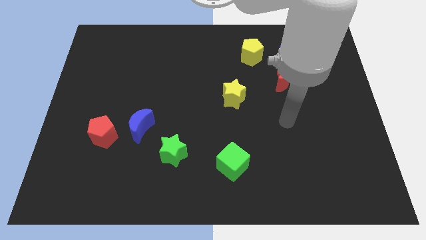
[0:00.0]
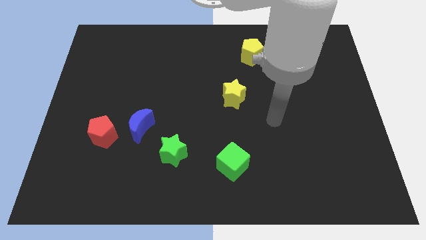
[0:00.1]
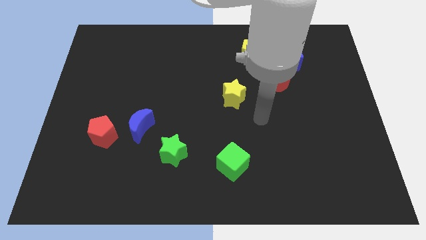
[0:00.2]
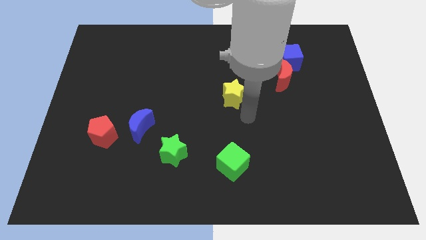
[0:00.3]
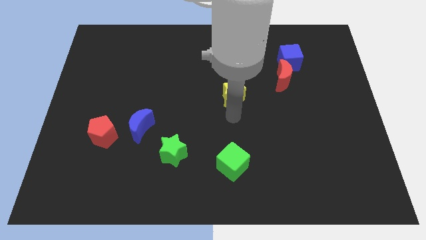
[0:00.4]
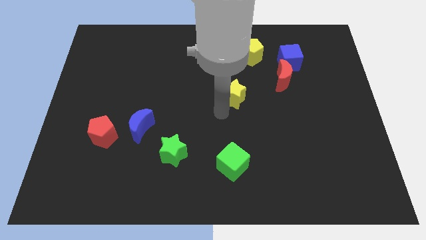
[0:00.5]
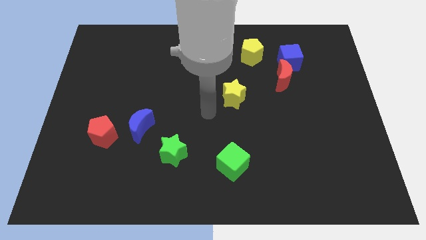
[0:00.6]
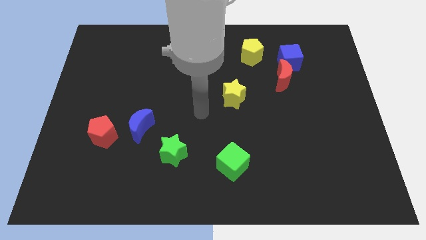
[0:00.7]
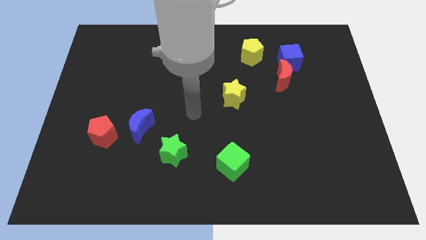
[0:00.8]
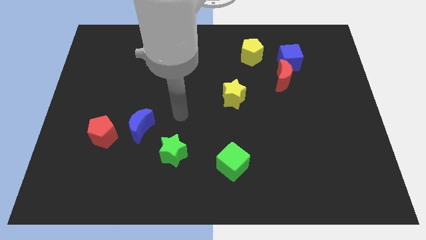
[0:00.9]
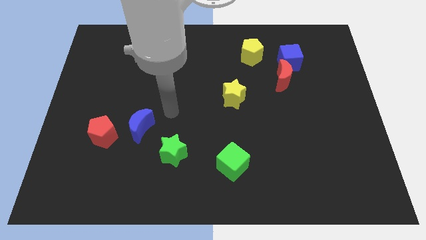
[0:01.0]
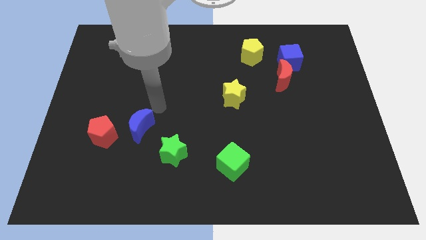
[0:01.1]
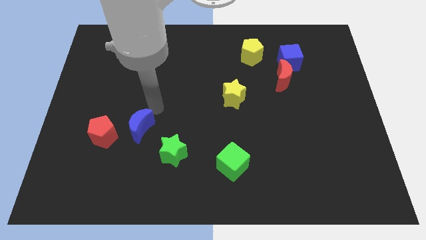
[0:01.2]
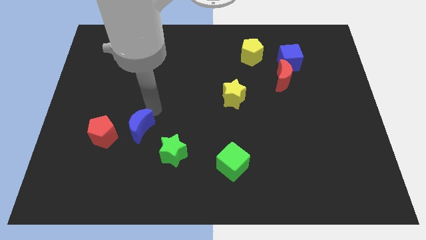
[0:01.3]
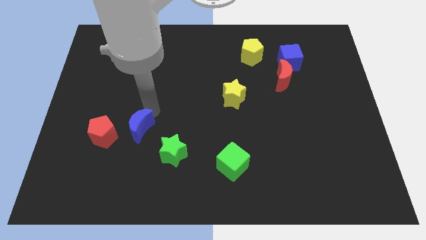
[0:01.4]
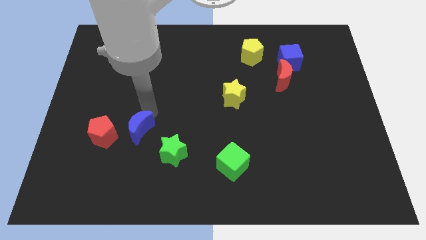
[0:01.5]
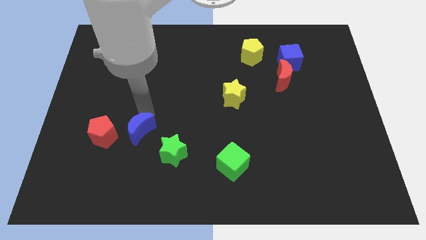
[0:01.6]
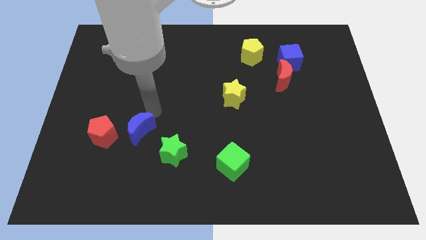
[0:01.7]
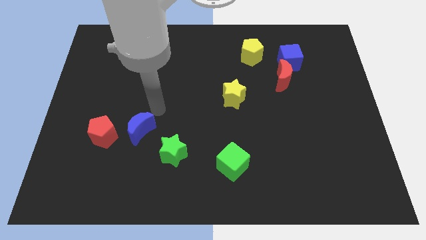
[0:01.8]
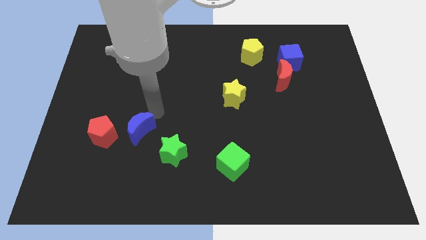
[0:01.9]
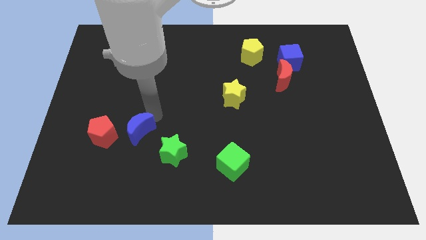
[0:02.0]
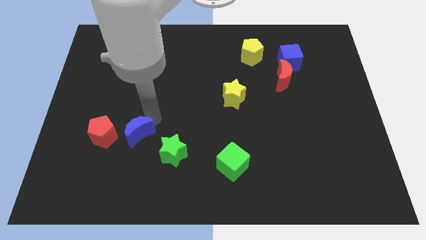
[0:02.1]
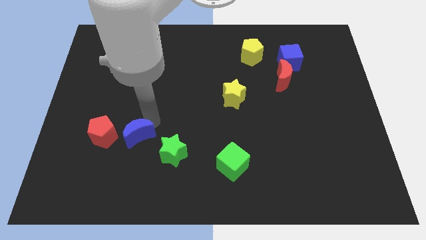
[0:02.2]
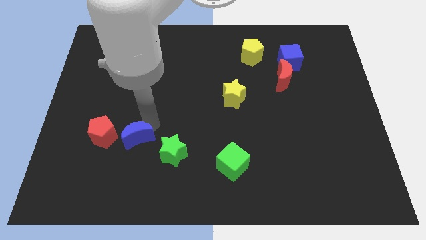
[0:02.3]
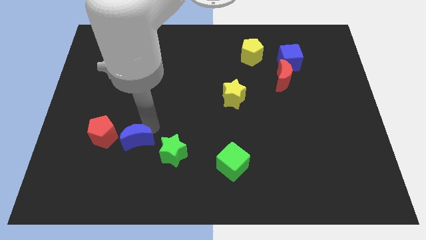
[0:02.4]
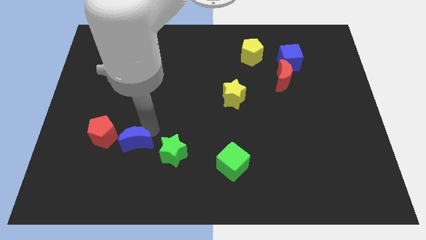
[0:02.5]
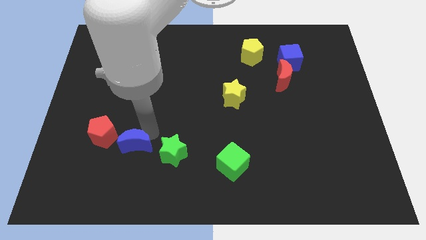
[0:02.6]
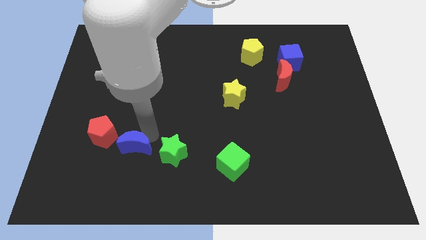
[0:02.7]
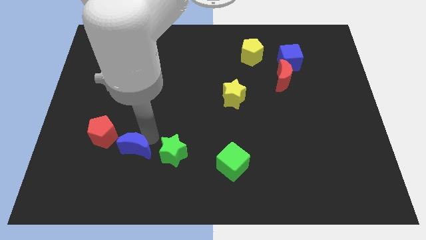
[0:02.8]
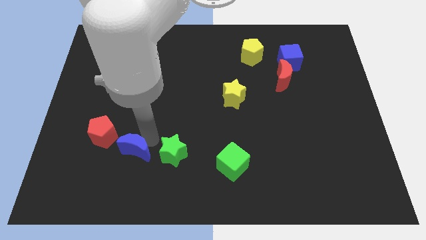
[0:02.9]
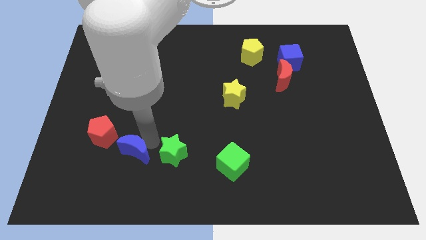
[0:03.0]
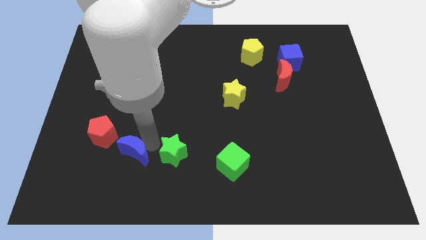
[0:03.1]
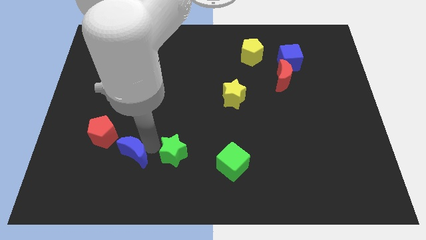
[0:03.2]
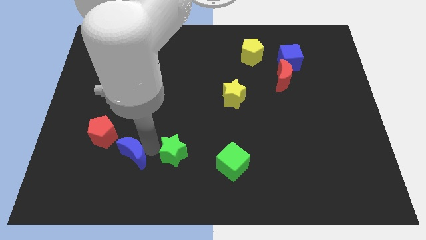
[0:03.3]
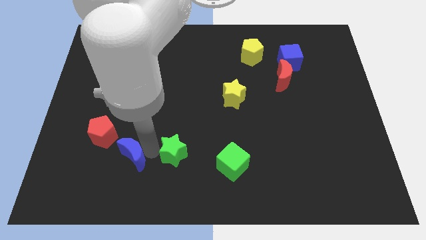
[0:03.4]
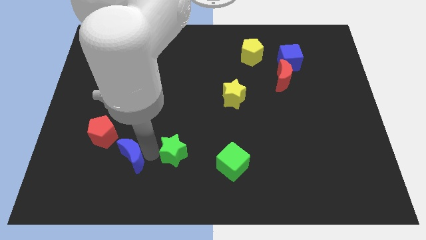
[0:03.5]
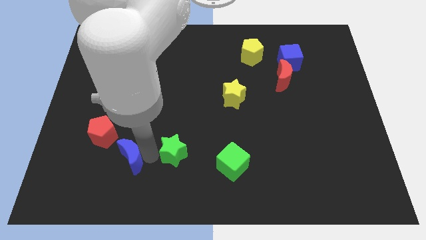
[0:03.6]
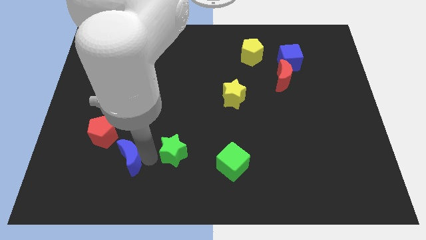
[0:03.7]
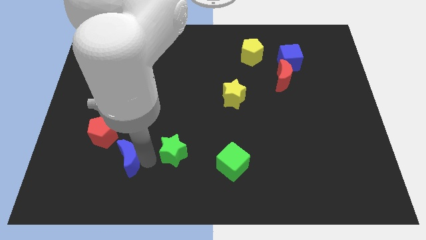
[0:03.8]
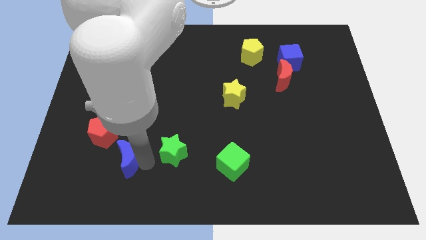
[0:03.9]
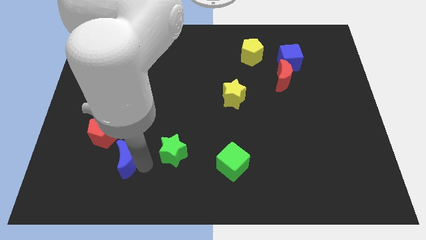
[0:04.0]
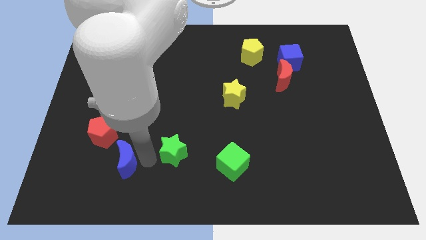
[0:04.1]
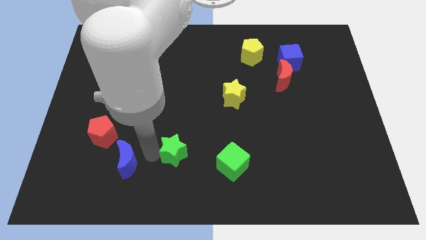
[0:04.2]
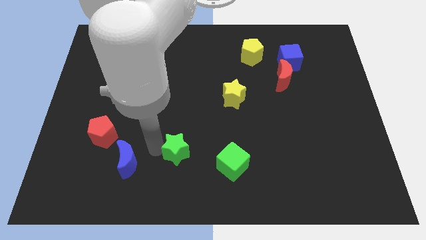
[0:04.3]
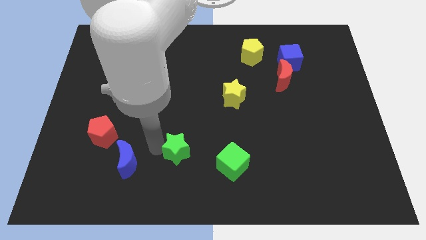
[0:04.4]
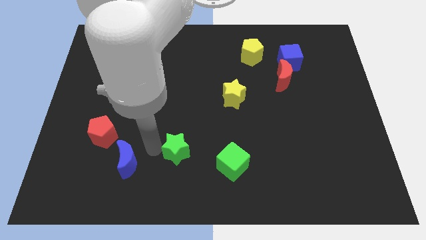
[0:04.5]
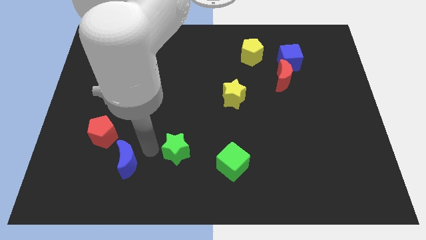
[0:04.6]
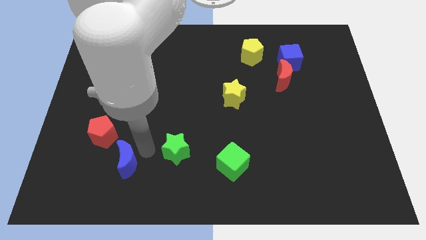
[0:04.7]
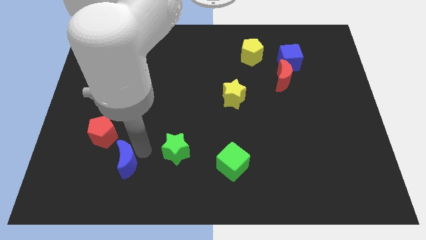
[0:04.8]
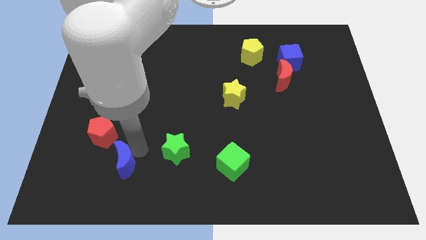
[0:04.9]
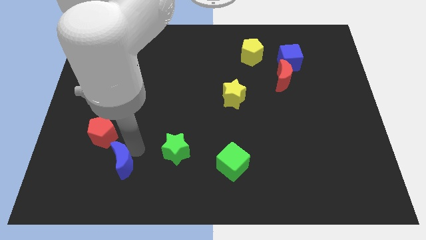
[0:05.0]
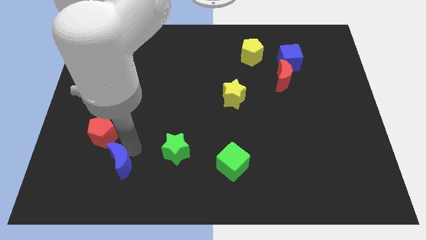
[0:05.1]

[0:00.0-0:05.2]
push the blue moon to the bottom of the red pentagon

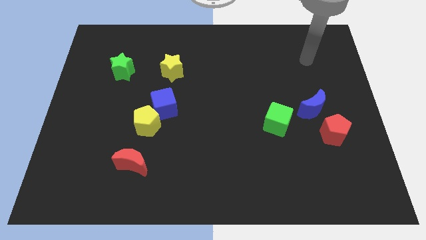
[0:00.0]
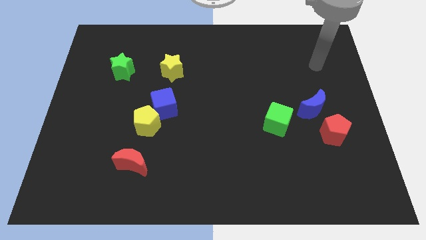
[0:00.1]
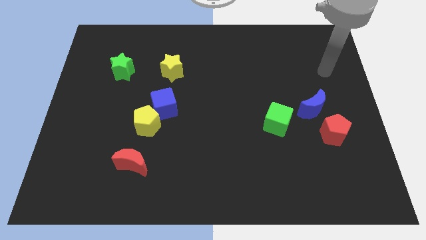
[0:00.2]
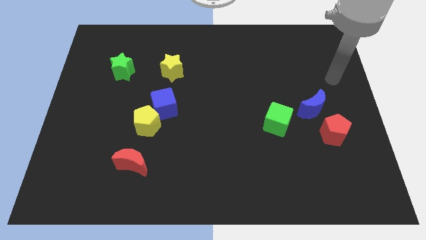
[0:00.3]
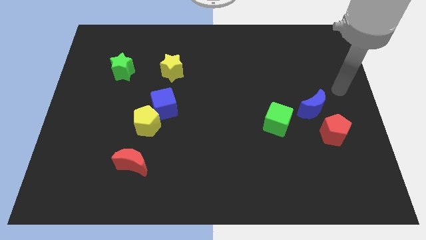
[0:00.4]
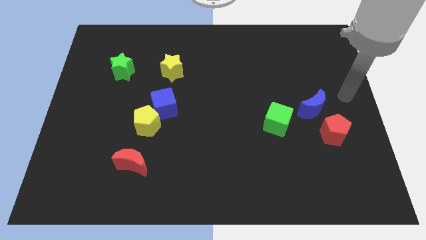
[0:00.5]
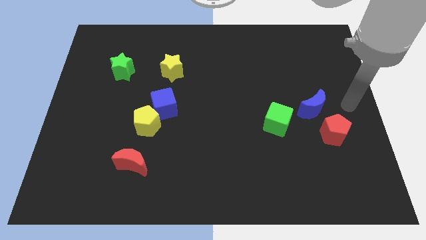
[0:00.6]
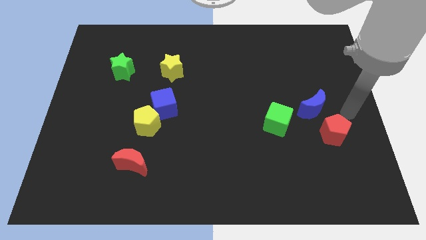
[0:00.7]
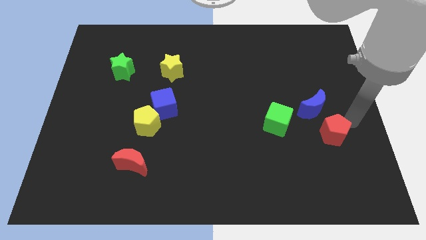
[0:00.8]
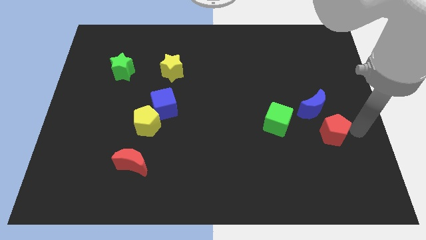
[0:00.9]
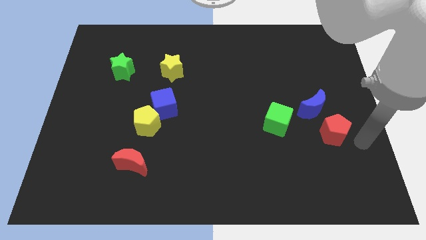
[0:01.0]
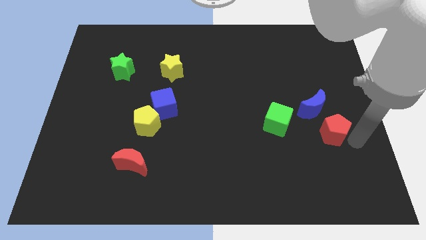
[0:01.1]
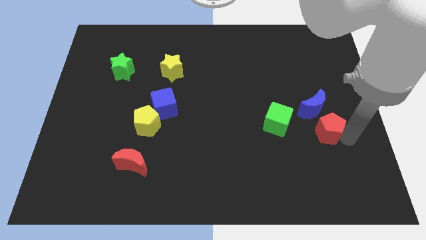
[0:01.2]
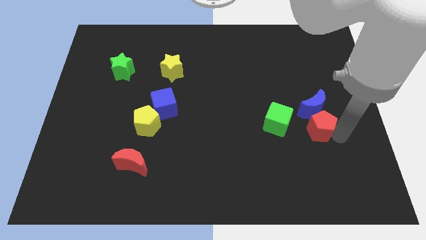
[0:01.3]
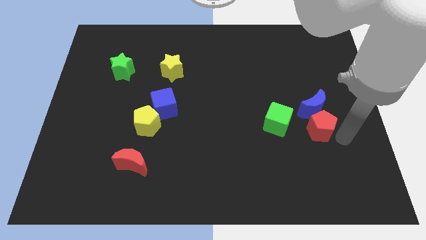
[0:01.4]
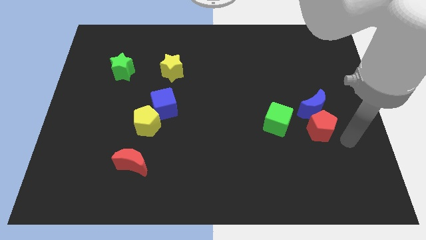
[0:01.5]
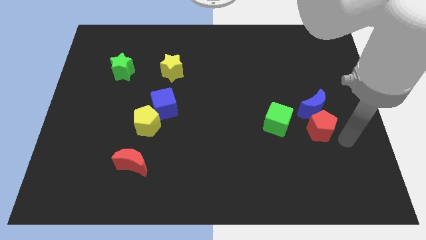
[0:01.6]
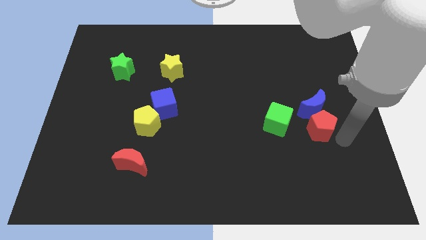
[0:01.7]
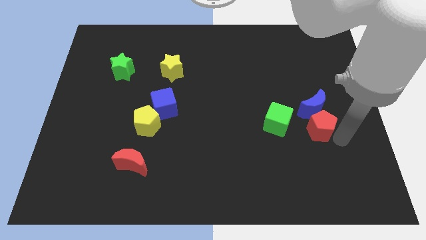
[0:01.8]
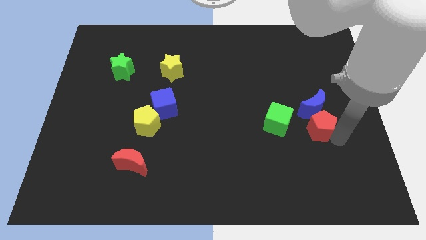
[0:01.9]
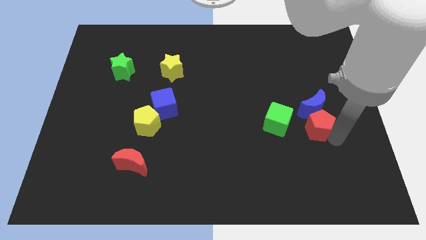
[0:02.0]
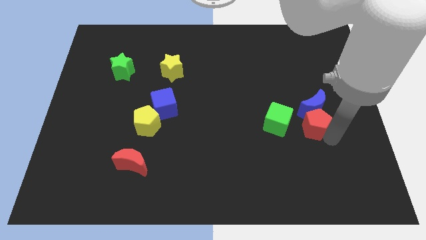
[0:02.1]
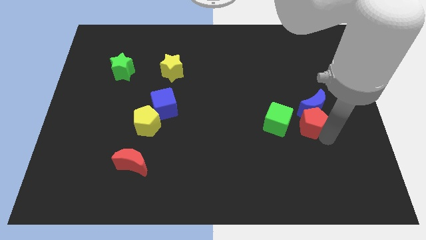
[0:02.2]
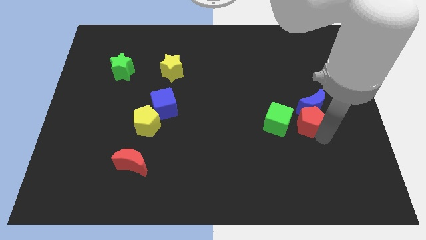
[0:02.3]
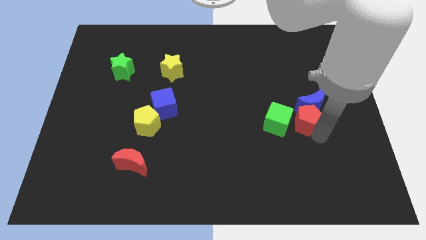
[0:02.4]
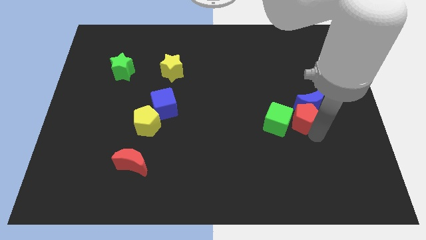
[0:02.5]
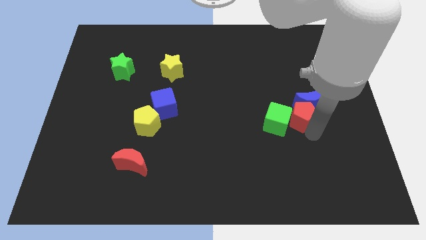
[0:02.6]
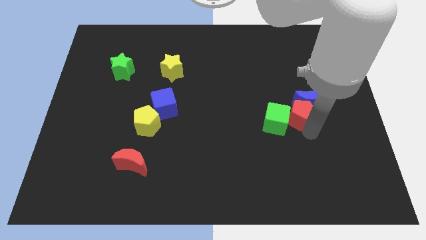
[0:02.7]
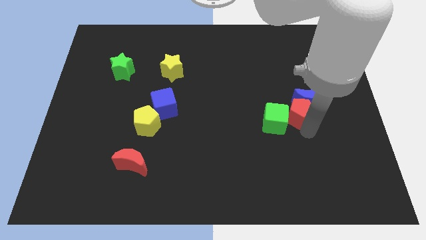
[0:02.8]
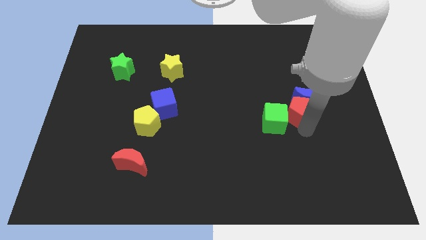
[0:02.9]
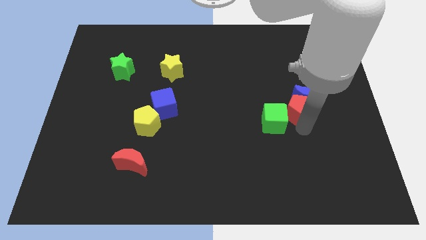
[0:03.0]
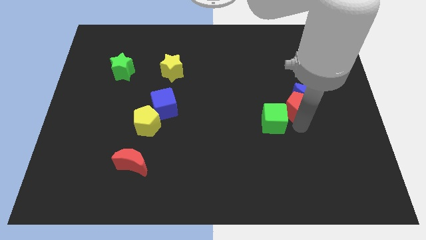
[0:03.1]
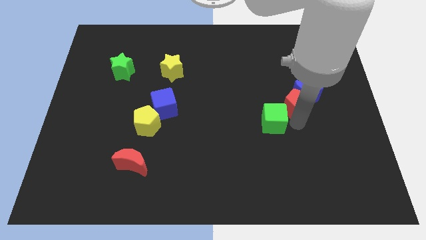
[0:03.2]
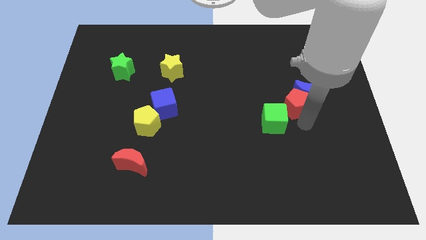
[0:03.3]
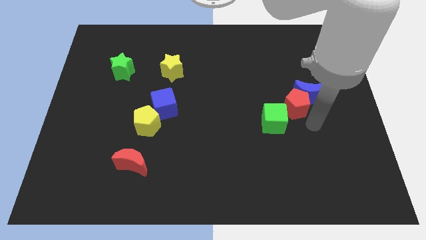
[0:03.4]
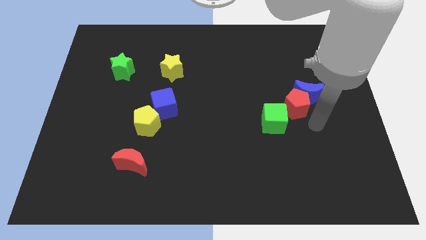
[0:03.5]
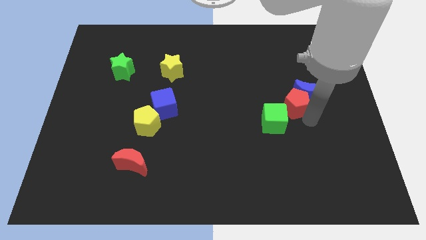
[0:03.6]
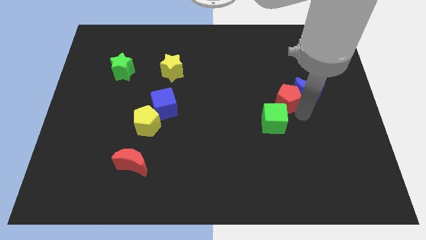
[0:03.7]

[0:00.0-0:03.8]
push the red pentagon above the green cube
